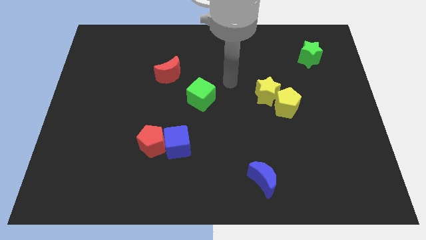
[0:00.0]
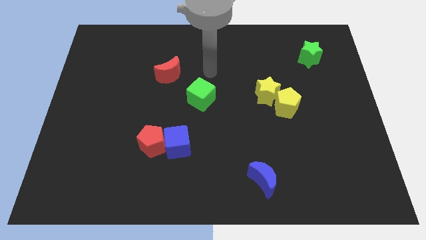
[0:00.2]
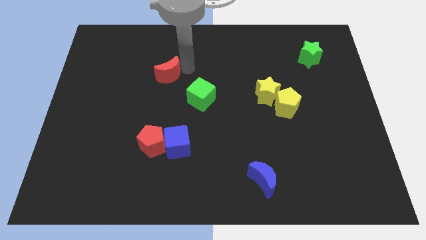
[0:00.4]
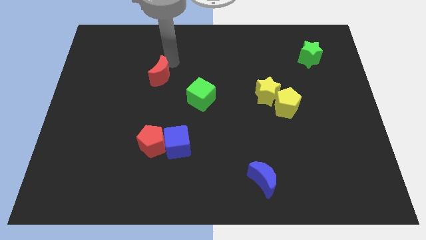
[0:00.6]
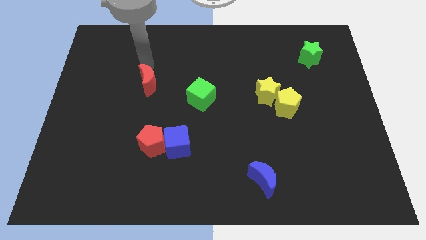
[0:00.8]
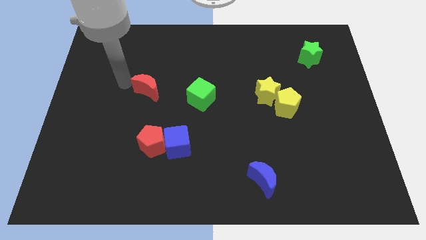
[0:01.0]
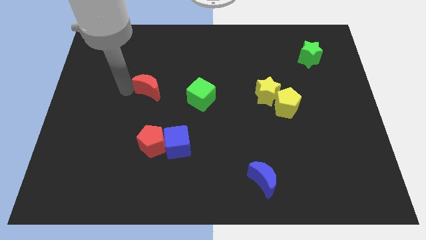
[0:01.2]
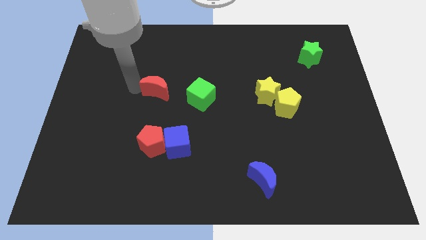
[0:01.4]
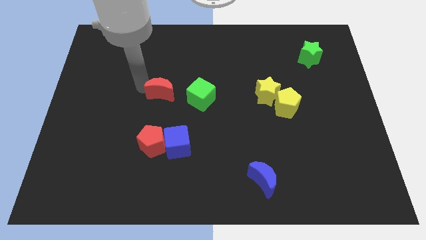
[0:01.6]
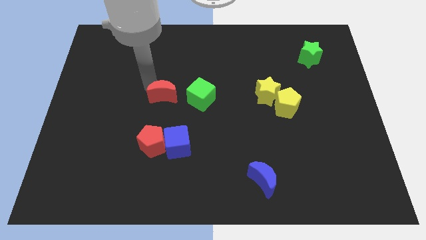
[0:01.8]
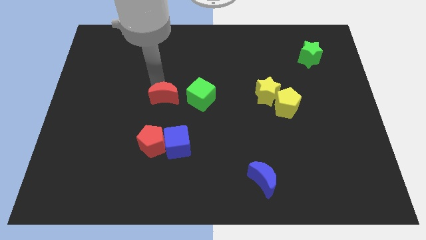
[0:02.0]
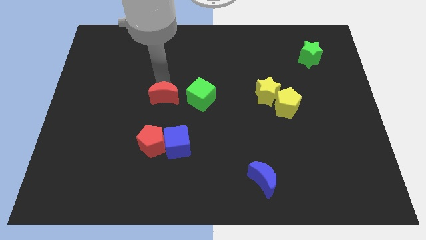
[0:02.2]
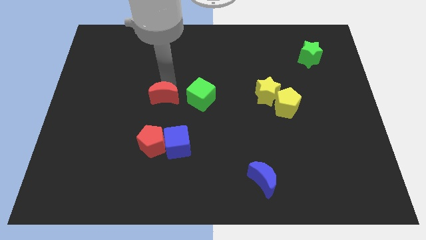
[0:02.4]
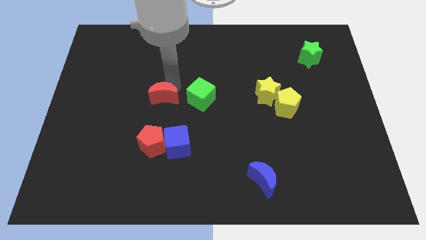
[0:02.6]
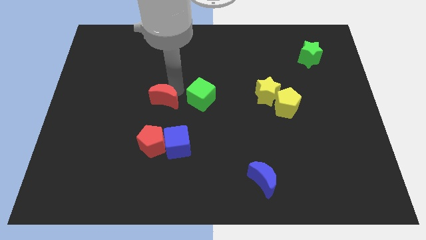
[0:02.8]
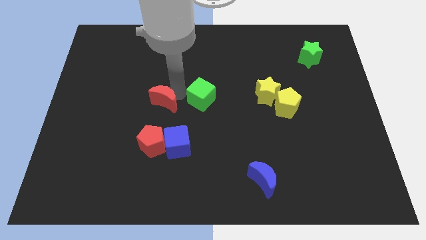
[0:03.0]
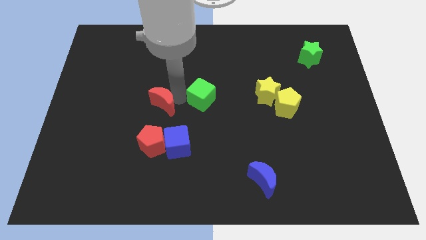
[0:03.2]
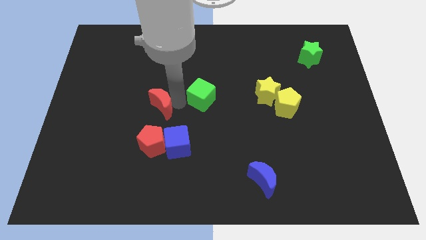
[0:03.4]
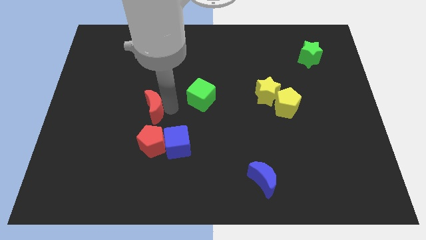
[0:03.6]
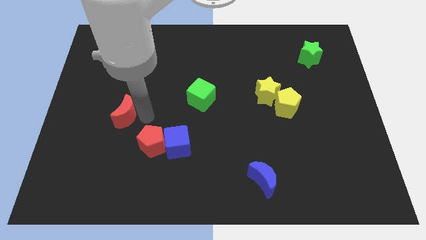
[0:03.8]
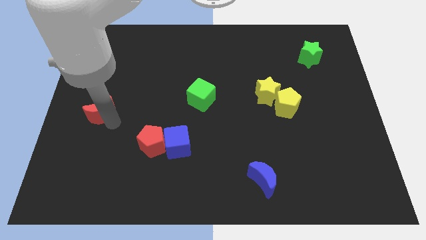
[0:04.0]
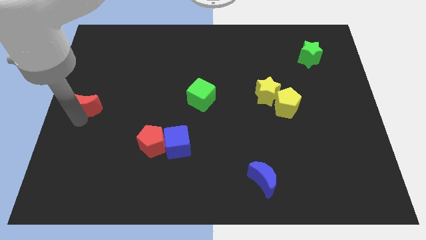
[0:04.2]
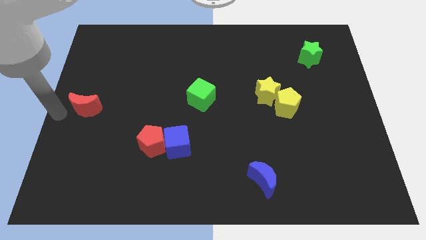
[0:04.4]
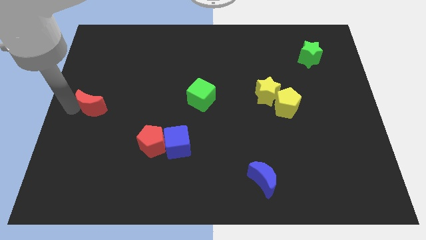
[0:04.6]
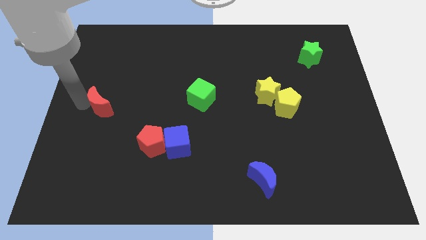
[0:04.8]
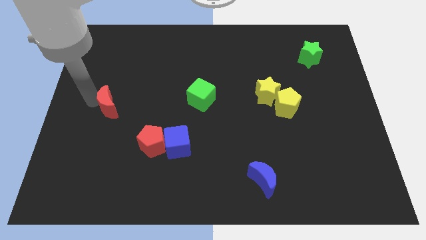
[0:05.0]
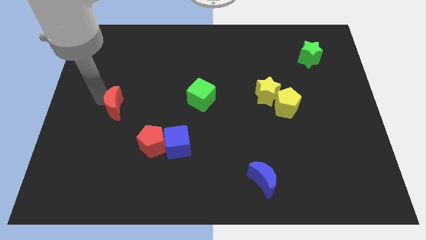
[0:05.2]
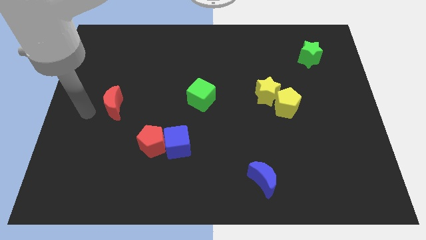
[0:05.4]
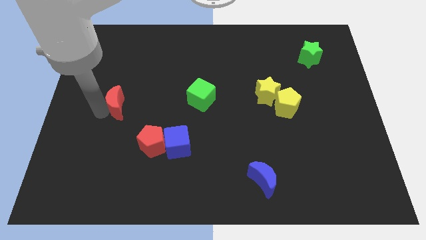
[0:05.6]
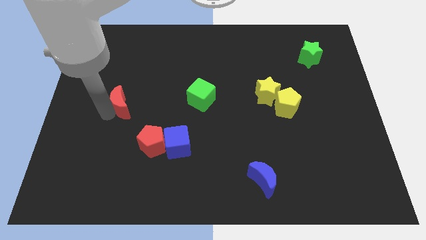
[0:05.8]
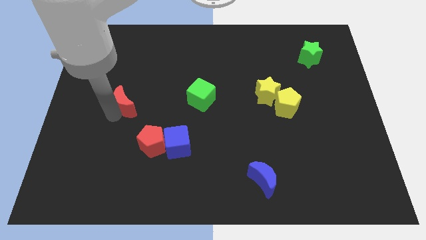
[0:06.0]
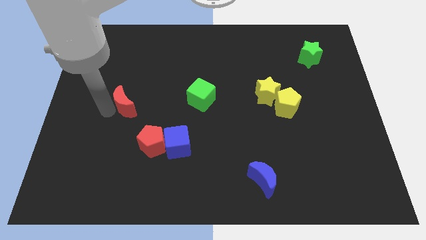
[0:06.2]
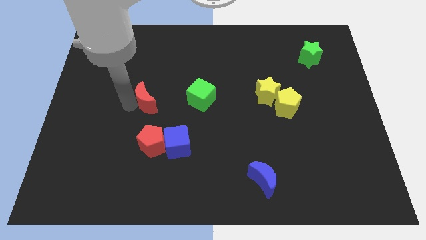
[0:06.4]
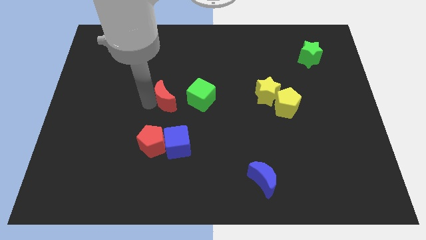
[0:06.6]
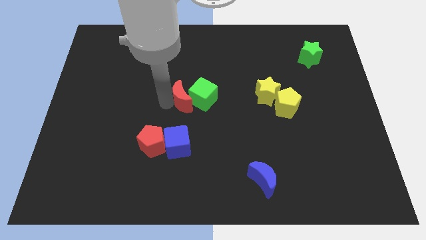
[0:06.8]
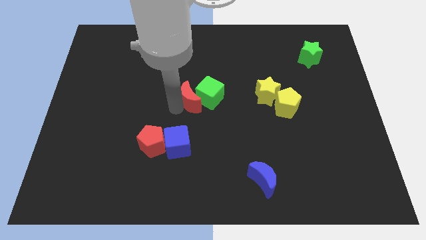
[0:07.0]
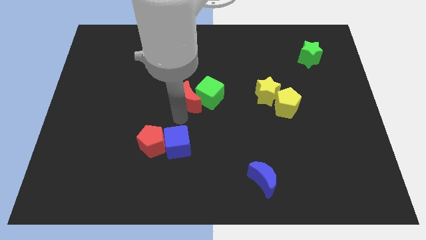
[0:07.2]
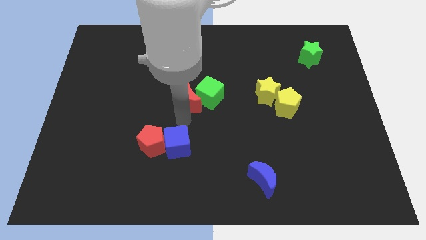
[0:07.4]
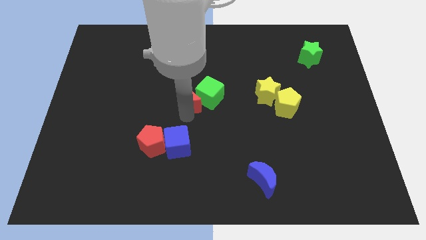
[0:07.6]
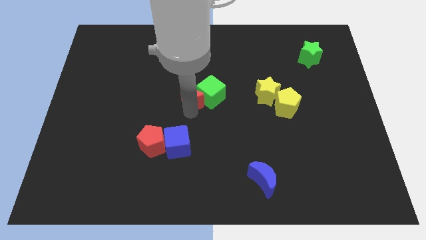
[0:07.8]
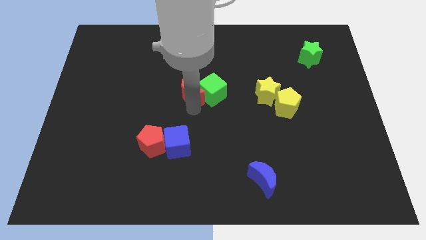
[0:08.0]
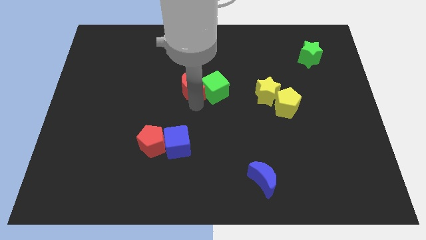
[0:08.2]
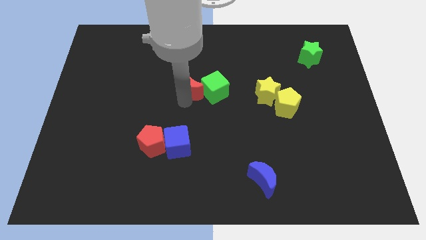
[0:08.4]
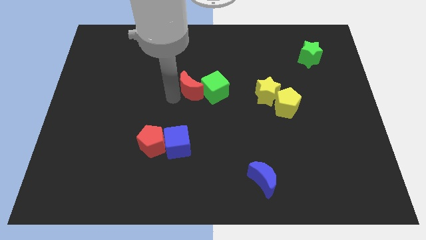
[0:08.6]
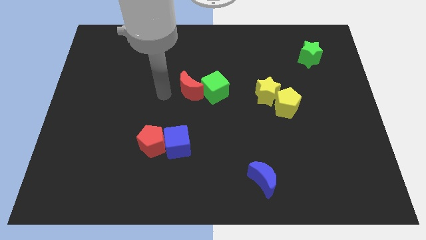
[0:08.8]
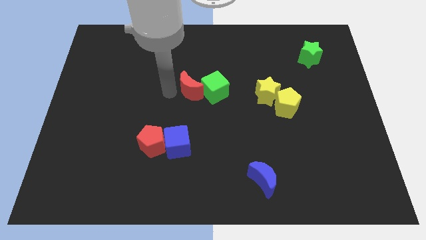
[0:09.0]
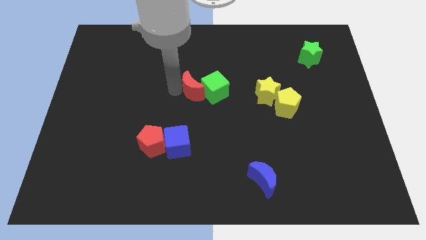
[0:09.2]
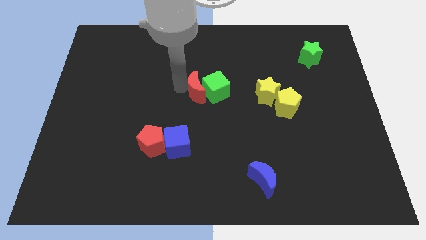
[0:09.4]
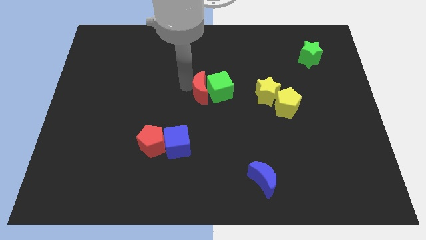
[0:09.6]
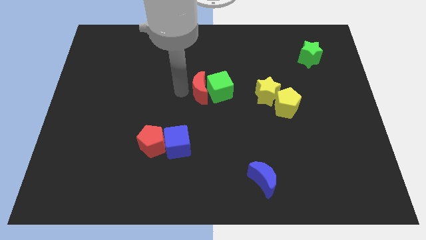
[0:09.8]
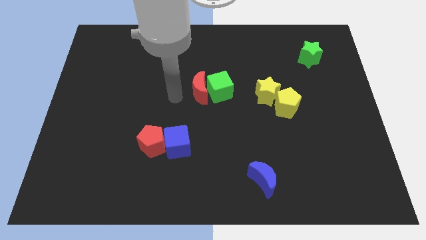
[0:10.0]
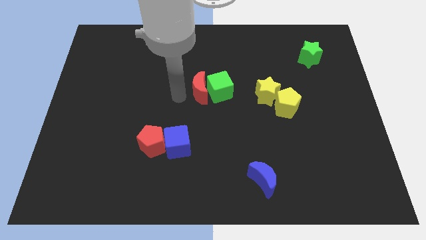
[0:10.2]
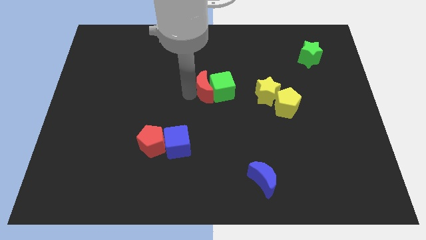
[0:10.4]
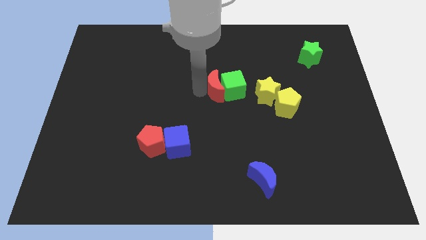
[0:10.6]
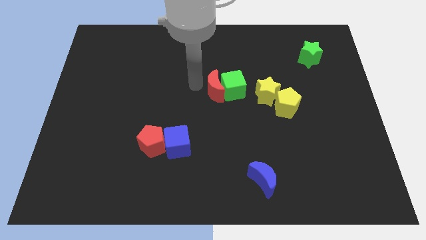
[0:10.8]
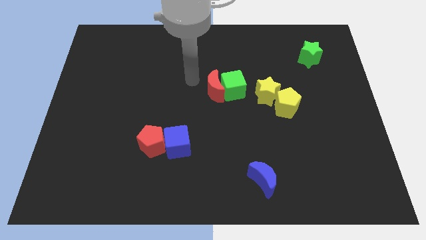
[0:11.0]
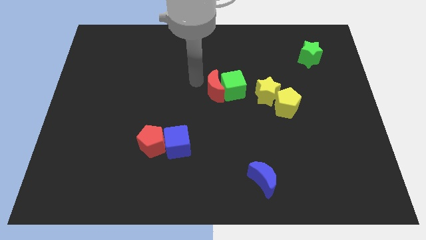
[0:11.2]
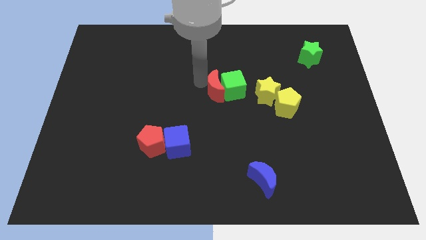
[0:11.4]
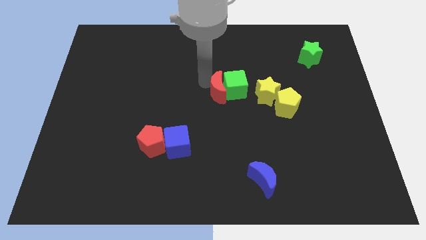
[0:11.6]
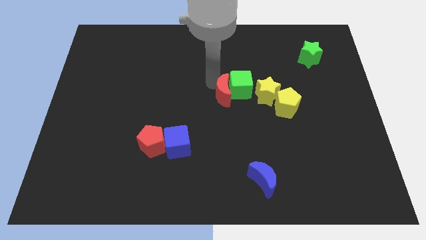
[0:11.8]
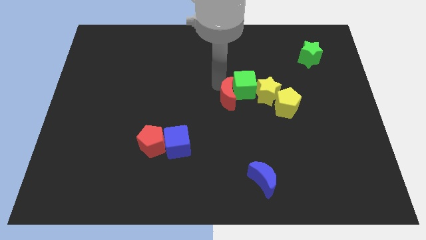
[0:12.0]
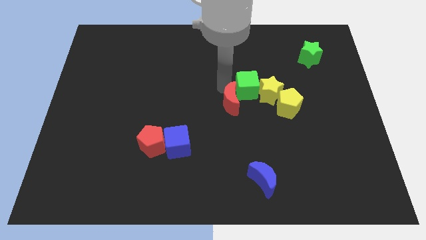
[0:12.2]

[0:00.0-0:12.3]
move the red moon to the bottom left side of the yellow star
